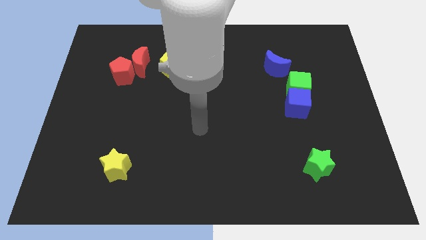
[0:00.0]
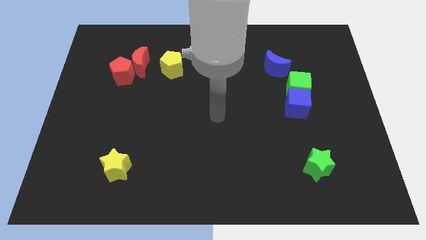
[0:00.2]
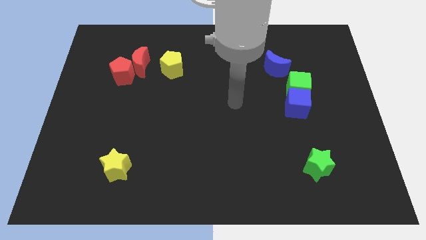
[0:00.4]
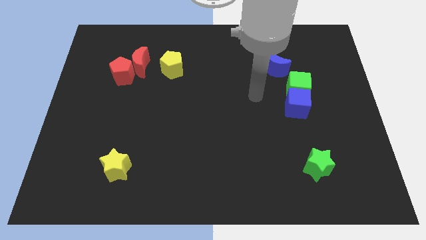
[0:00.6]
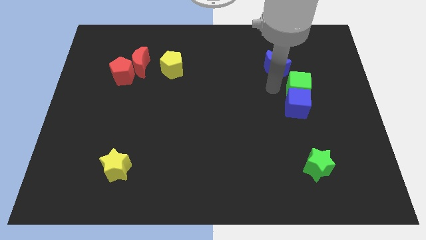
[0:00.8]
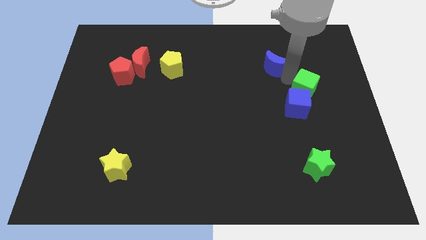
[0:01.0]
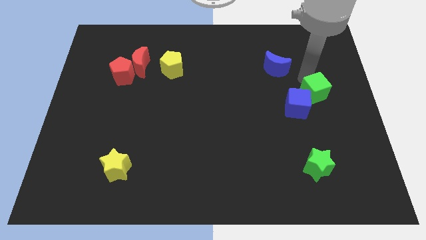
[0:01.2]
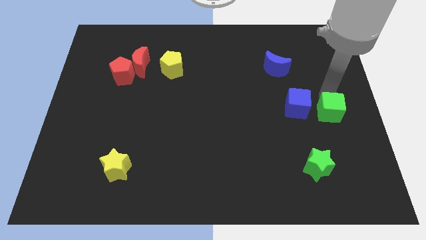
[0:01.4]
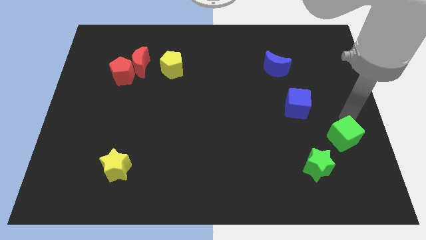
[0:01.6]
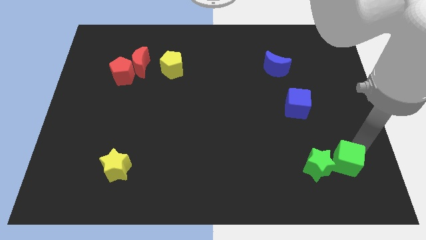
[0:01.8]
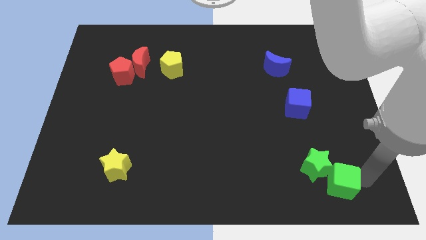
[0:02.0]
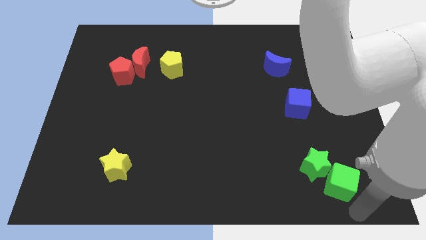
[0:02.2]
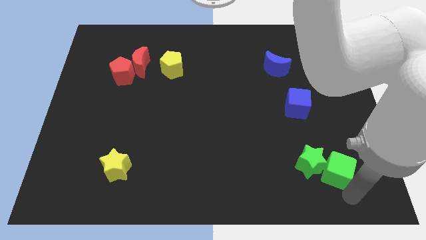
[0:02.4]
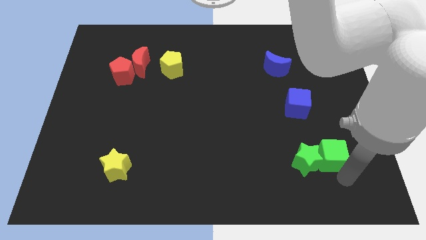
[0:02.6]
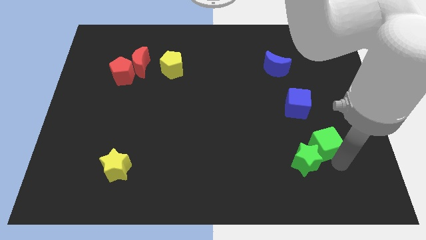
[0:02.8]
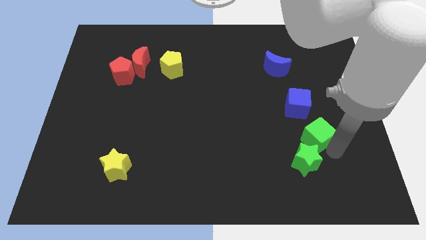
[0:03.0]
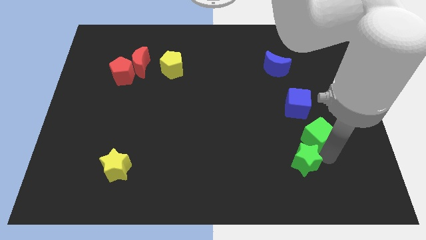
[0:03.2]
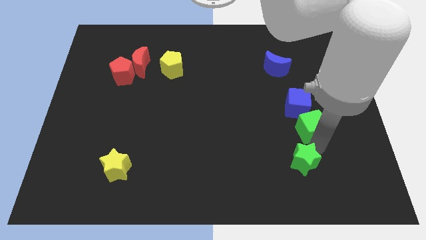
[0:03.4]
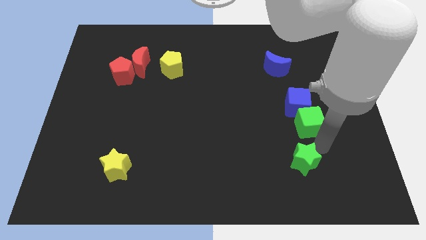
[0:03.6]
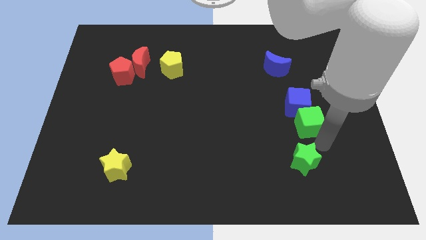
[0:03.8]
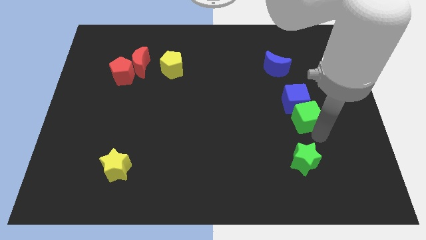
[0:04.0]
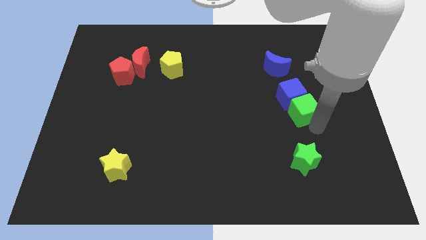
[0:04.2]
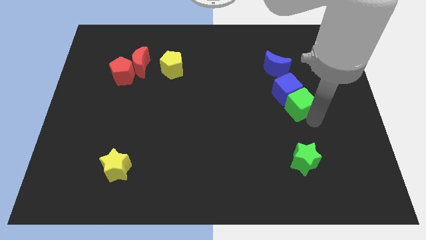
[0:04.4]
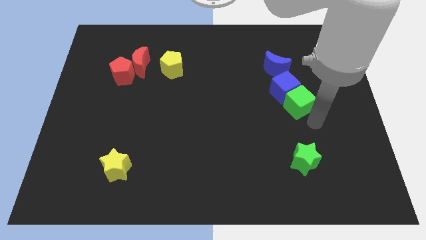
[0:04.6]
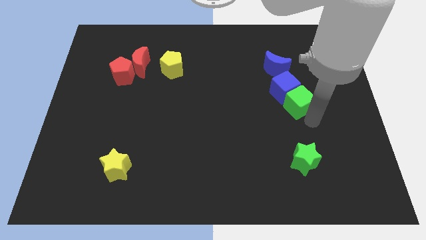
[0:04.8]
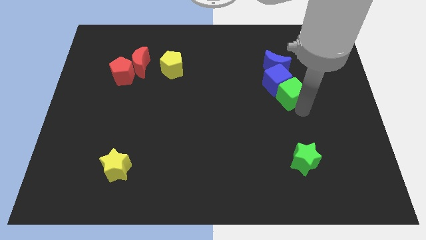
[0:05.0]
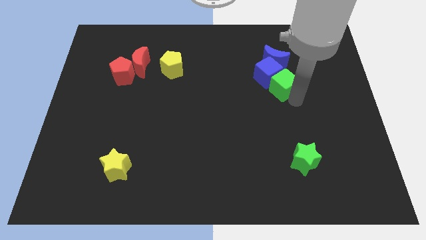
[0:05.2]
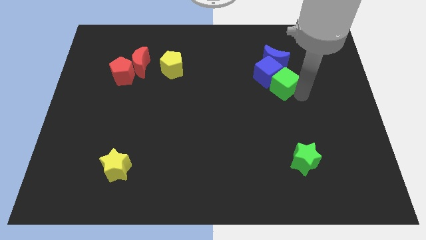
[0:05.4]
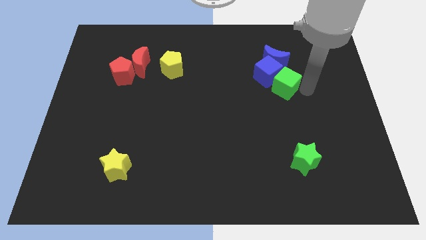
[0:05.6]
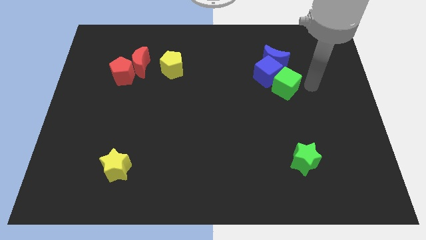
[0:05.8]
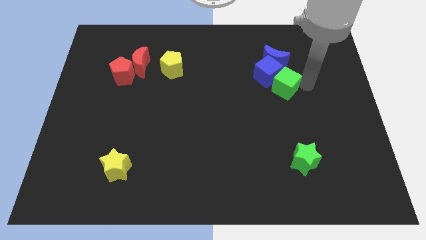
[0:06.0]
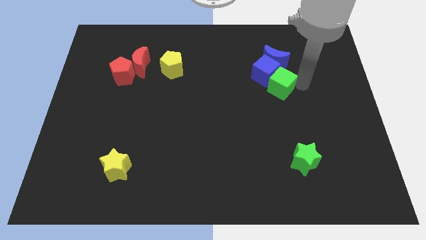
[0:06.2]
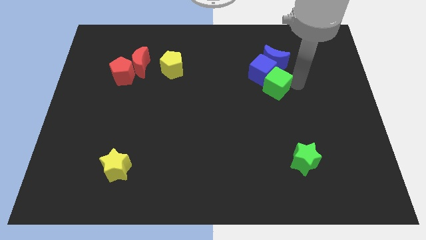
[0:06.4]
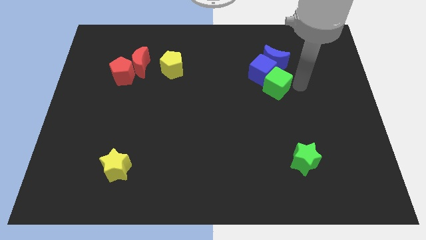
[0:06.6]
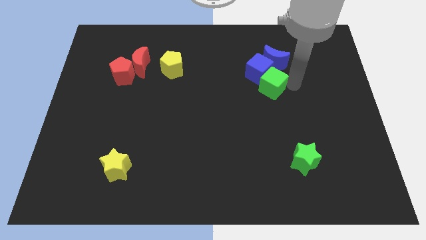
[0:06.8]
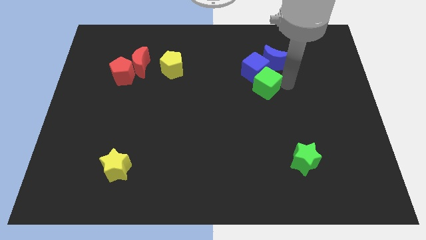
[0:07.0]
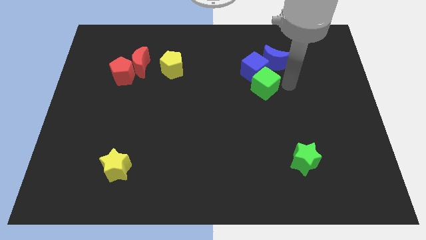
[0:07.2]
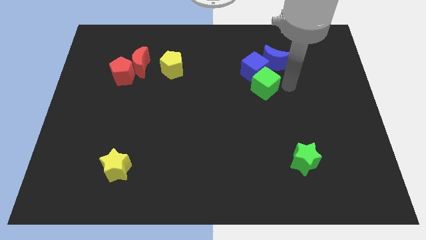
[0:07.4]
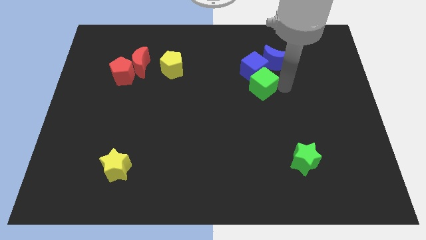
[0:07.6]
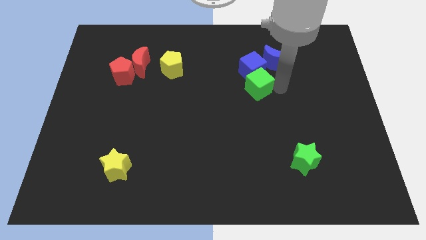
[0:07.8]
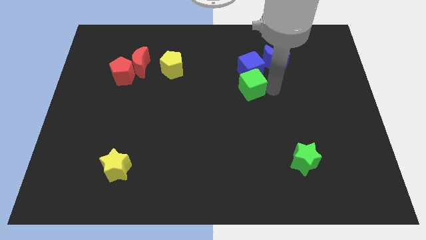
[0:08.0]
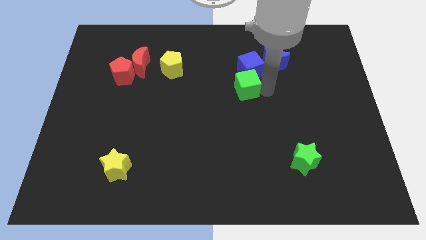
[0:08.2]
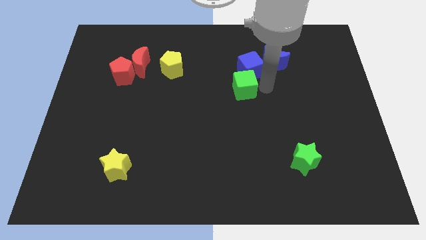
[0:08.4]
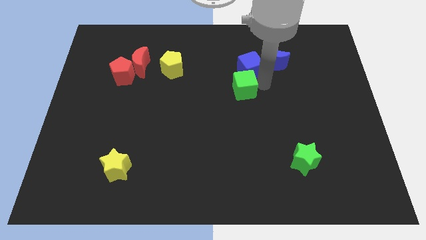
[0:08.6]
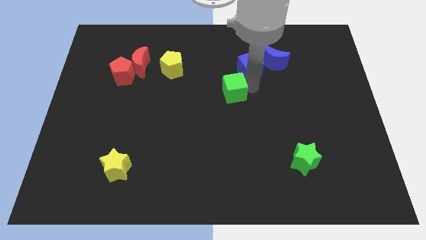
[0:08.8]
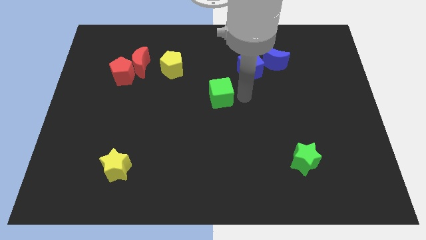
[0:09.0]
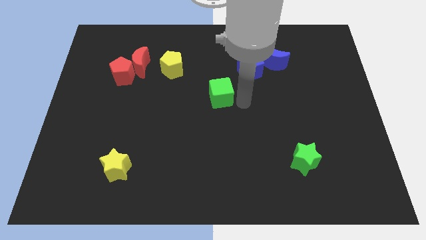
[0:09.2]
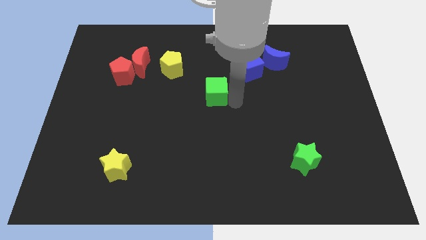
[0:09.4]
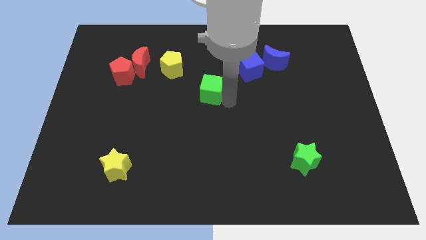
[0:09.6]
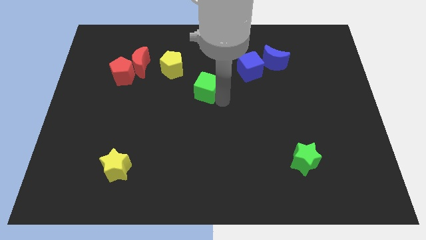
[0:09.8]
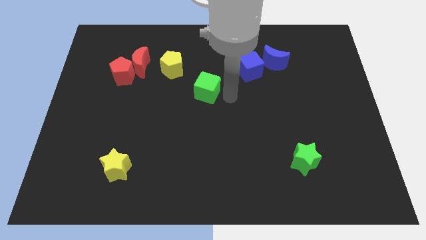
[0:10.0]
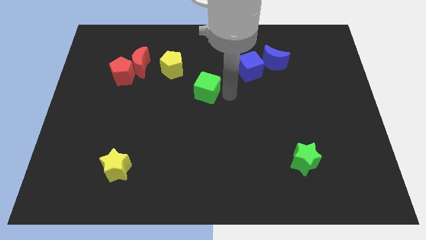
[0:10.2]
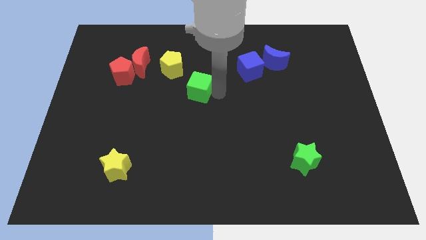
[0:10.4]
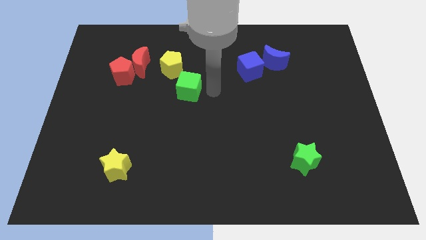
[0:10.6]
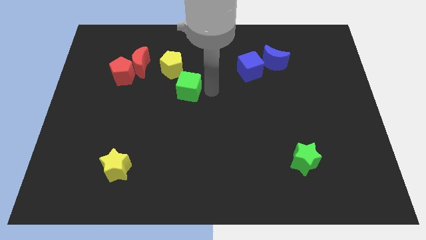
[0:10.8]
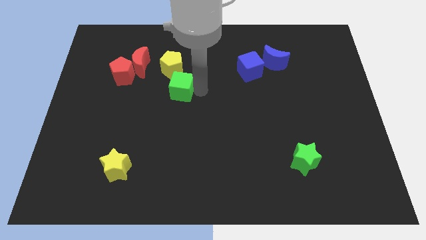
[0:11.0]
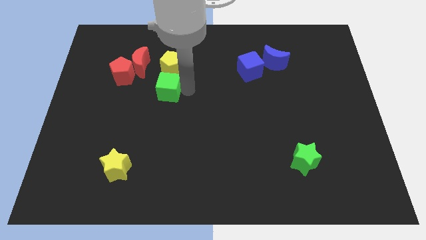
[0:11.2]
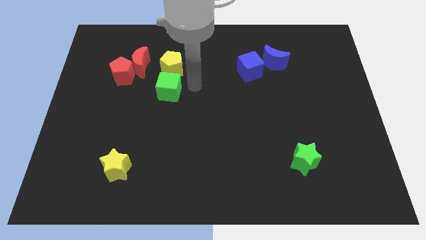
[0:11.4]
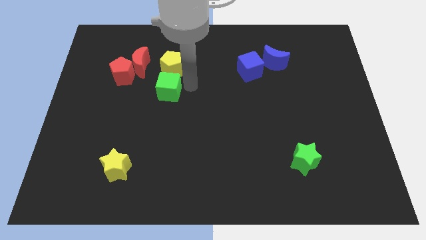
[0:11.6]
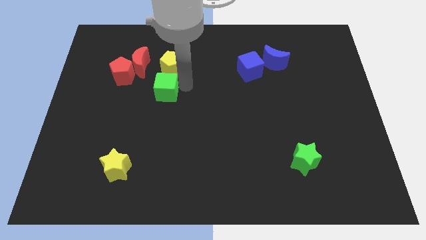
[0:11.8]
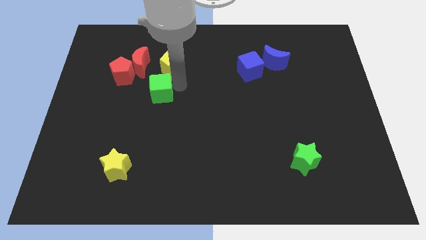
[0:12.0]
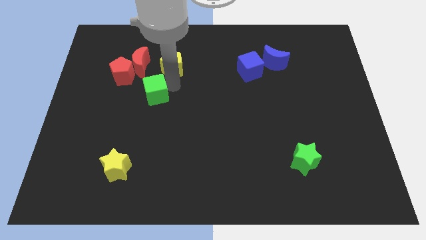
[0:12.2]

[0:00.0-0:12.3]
put the green cube to the bottom of the red moon
